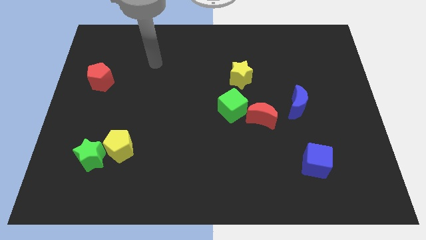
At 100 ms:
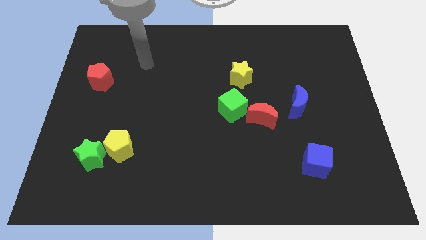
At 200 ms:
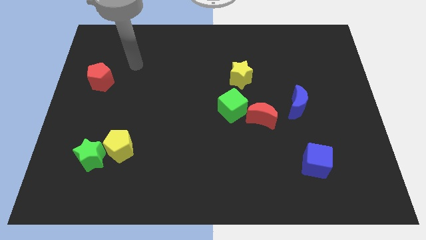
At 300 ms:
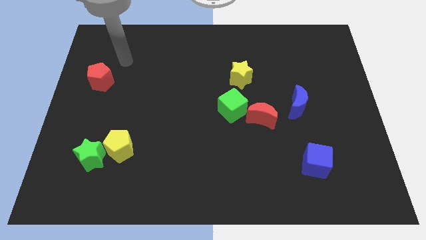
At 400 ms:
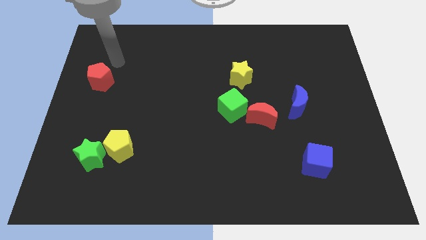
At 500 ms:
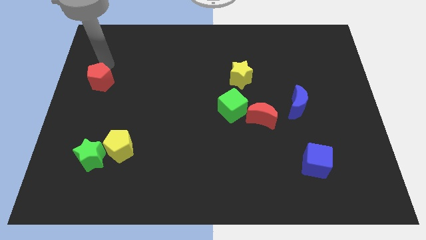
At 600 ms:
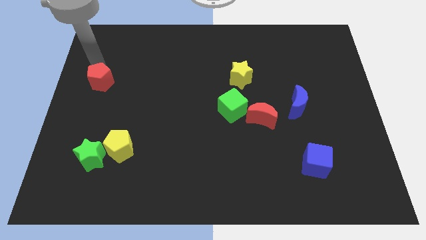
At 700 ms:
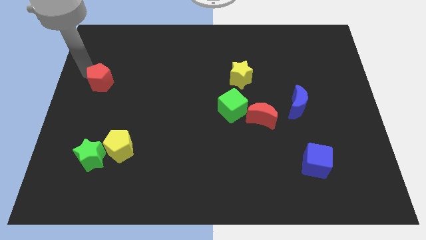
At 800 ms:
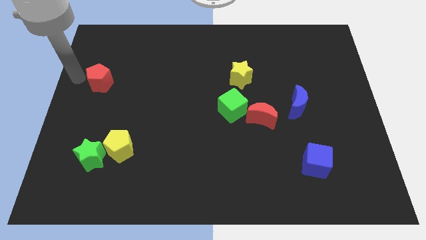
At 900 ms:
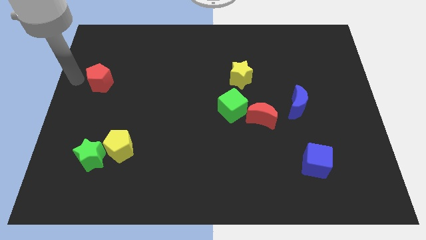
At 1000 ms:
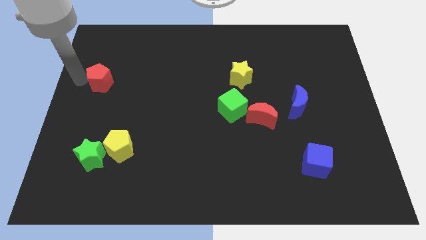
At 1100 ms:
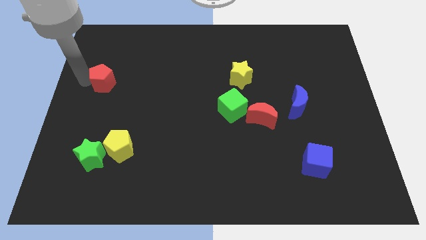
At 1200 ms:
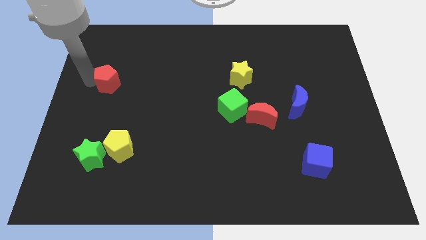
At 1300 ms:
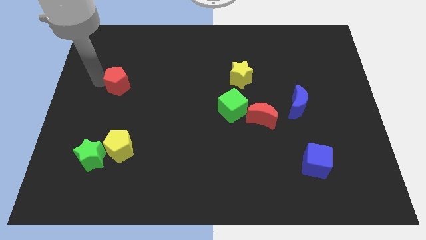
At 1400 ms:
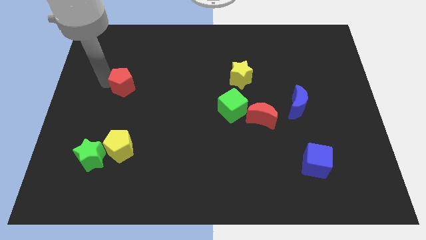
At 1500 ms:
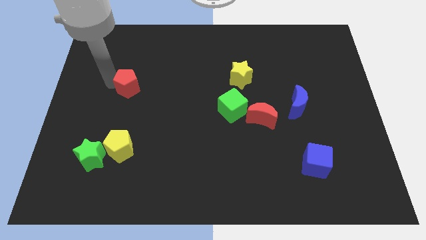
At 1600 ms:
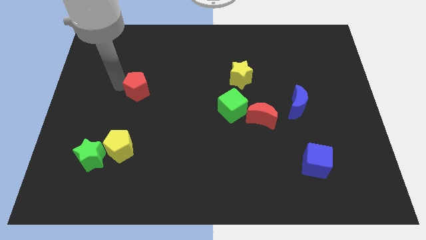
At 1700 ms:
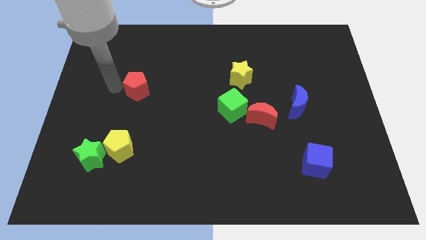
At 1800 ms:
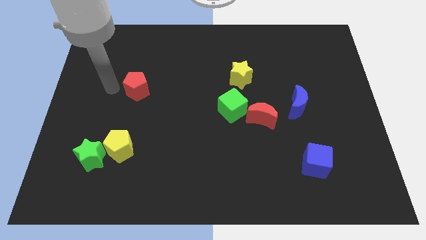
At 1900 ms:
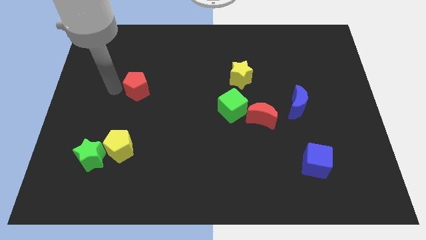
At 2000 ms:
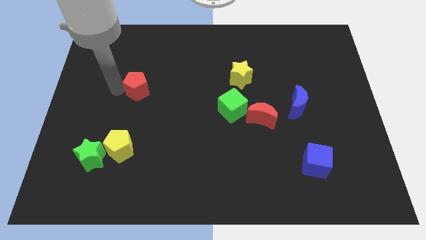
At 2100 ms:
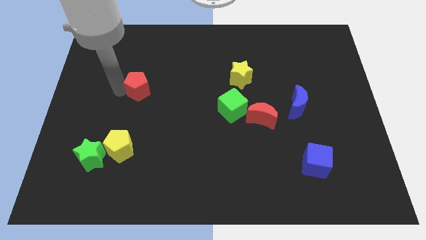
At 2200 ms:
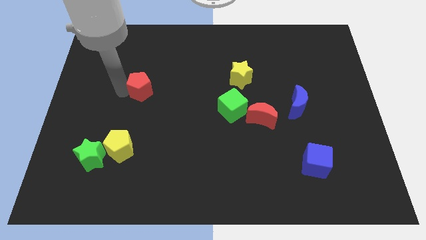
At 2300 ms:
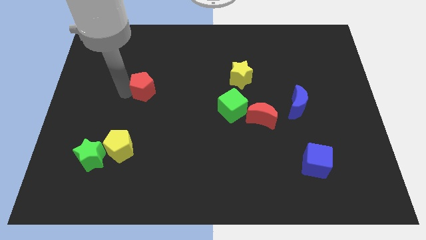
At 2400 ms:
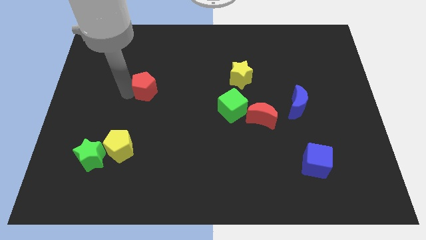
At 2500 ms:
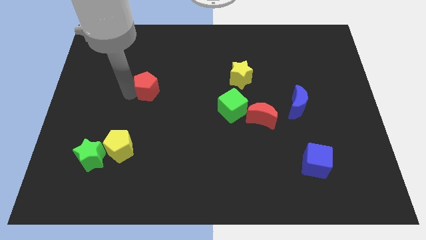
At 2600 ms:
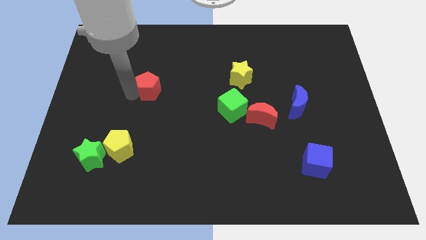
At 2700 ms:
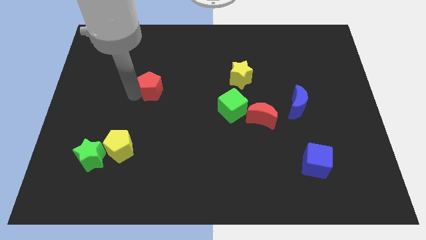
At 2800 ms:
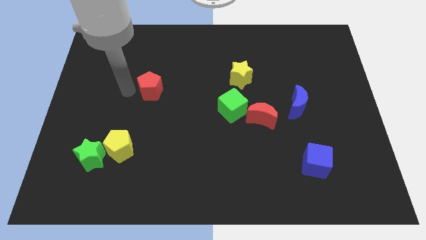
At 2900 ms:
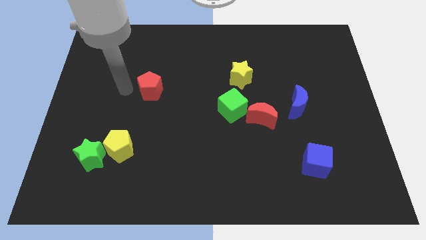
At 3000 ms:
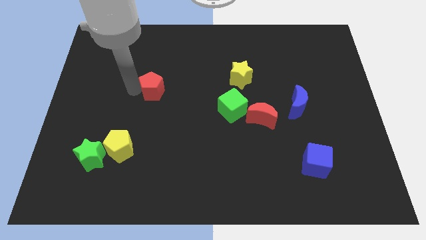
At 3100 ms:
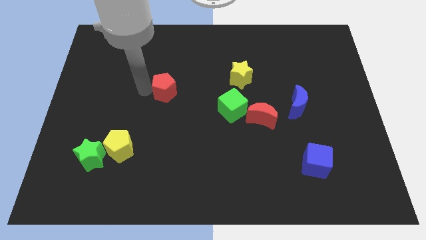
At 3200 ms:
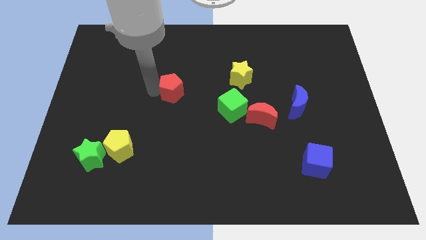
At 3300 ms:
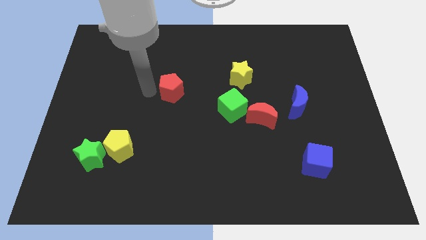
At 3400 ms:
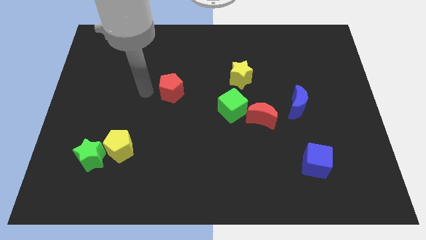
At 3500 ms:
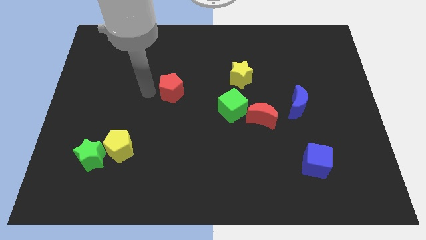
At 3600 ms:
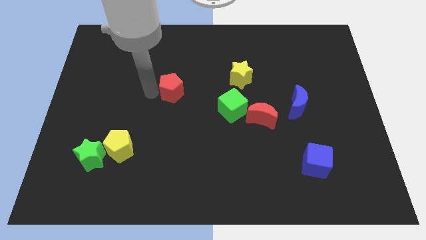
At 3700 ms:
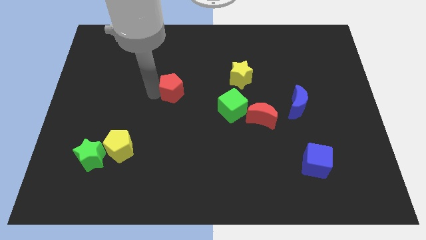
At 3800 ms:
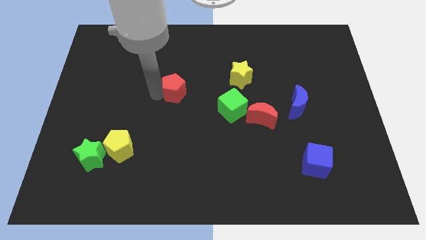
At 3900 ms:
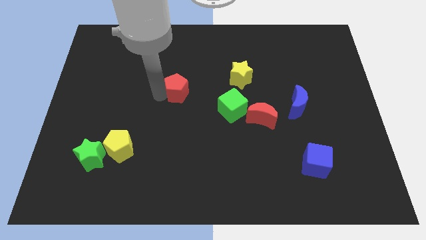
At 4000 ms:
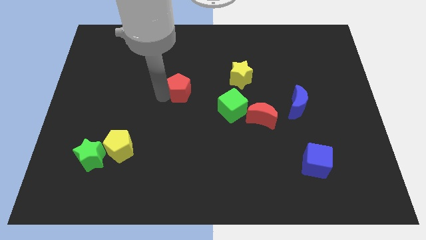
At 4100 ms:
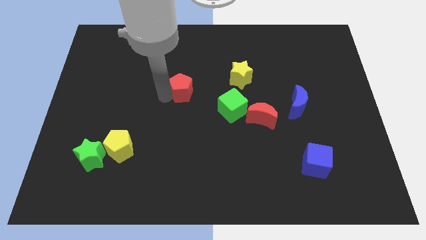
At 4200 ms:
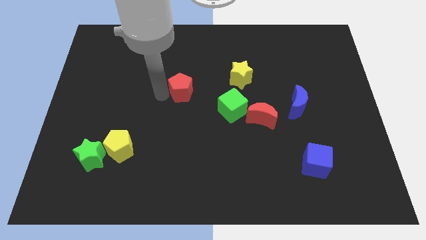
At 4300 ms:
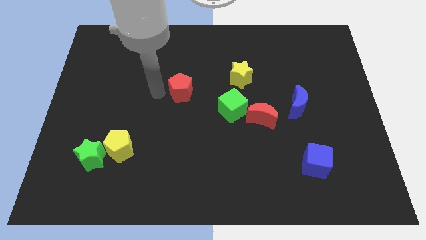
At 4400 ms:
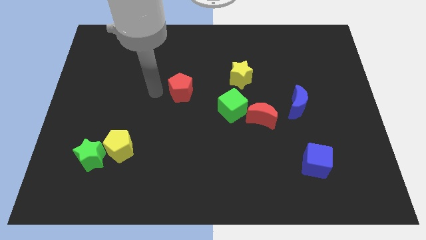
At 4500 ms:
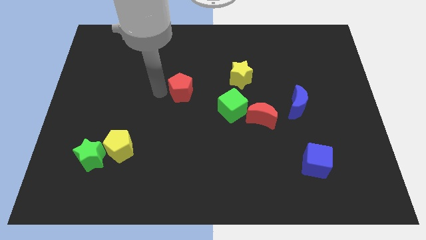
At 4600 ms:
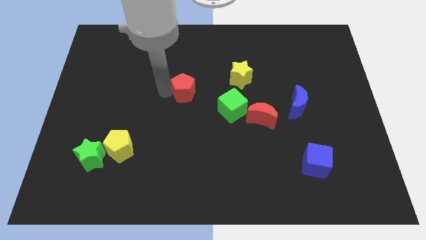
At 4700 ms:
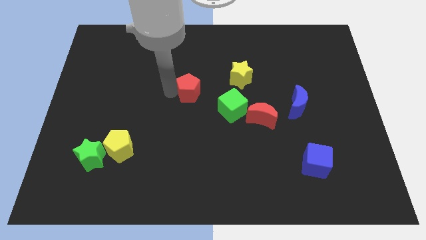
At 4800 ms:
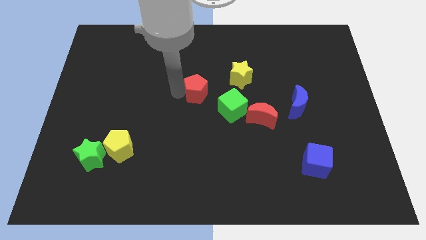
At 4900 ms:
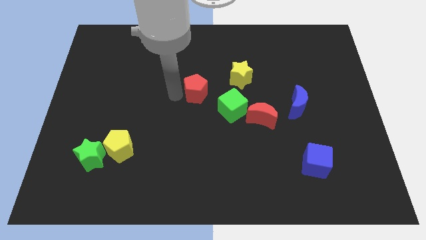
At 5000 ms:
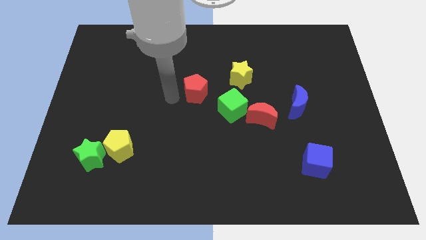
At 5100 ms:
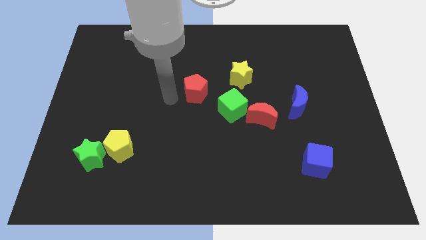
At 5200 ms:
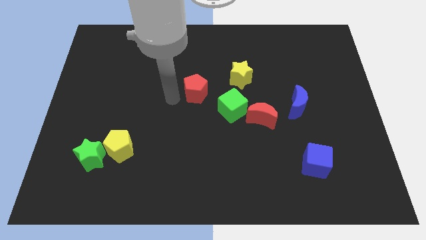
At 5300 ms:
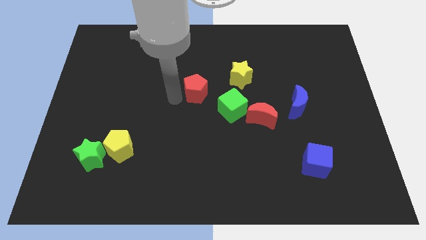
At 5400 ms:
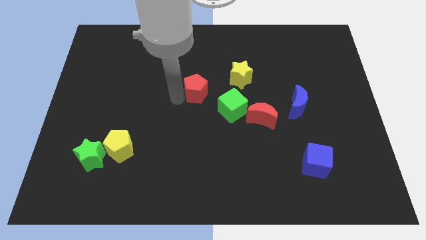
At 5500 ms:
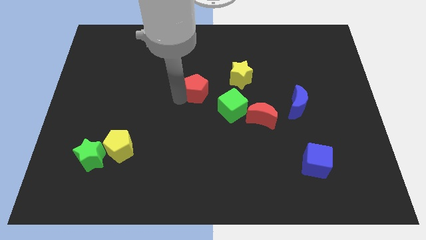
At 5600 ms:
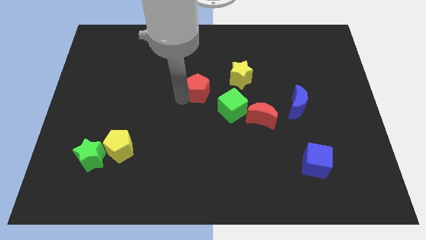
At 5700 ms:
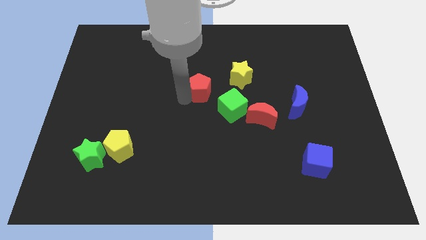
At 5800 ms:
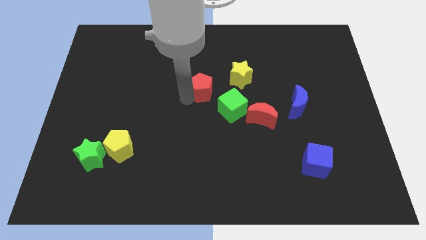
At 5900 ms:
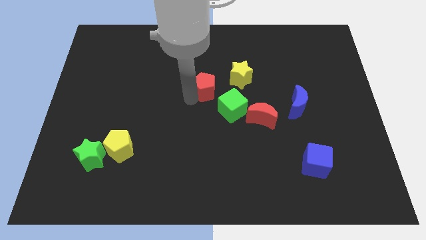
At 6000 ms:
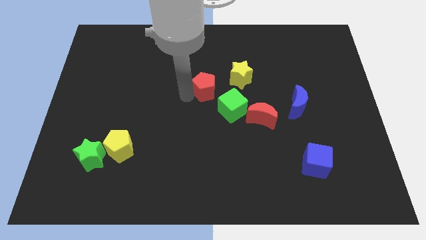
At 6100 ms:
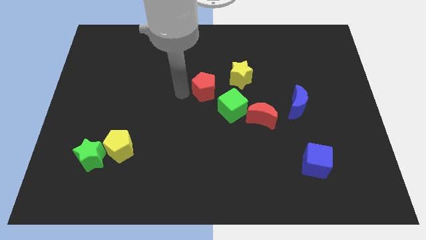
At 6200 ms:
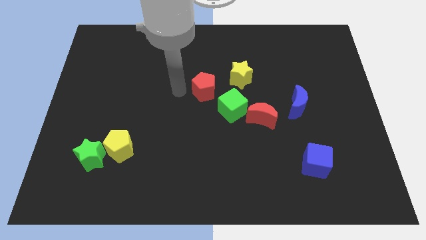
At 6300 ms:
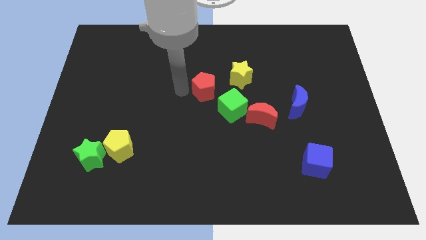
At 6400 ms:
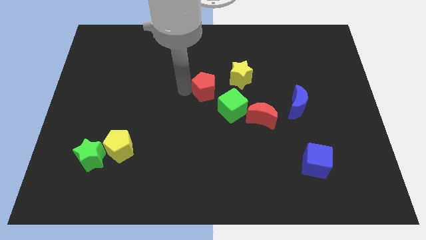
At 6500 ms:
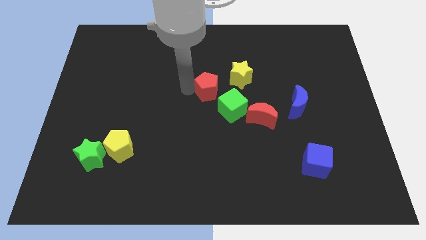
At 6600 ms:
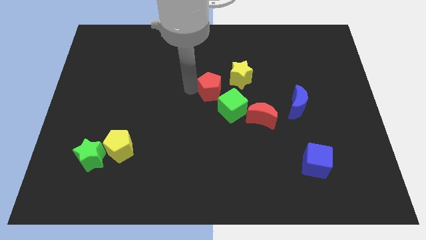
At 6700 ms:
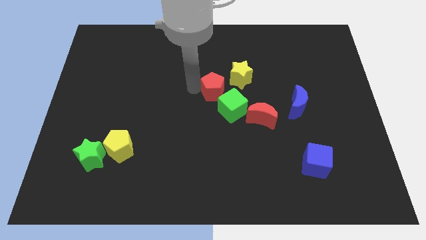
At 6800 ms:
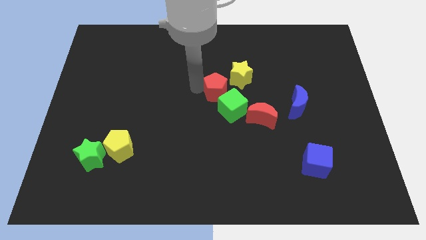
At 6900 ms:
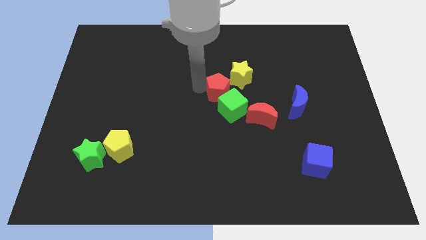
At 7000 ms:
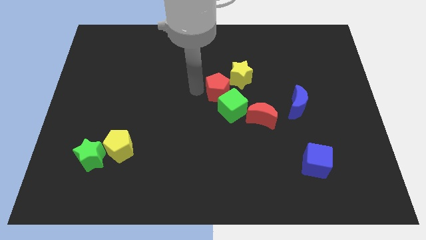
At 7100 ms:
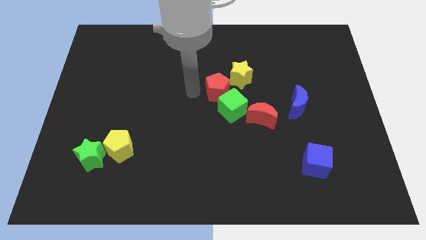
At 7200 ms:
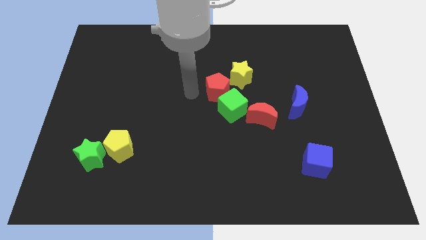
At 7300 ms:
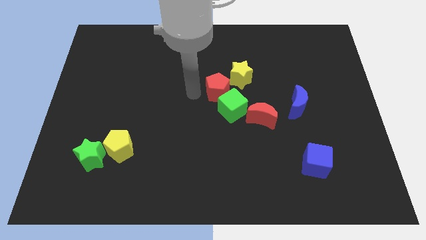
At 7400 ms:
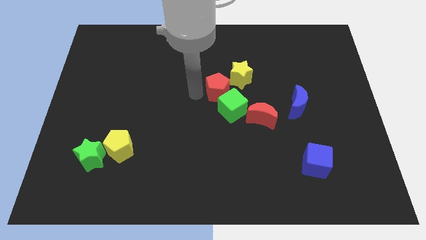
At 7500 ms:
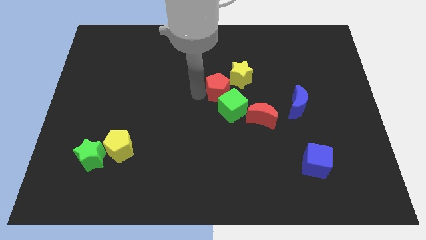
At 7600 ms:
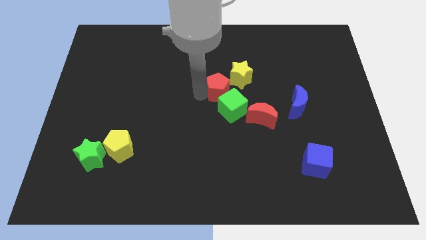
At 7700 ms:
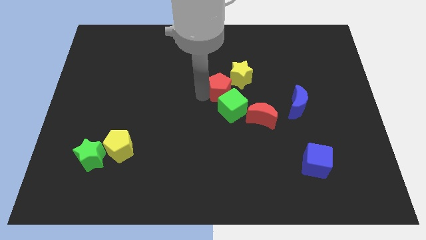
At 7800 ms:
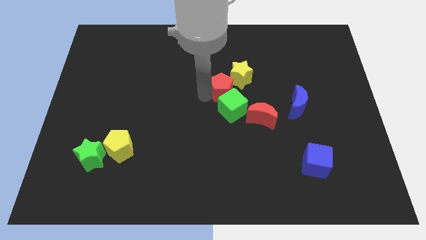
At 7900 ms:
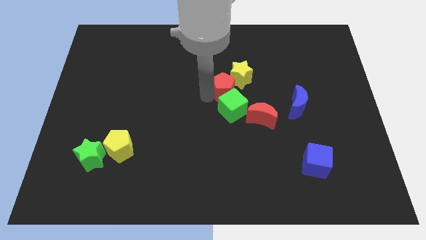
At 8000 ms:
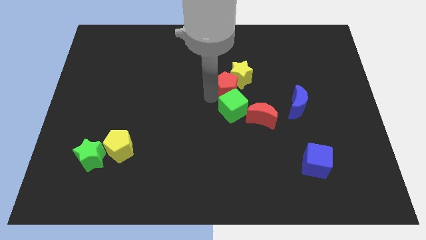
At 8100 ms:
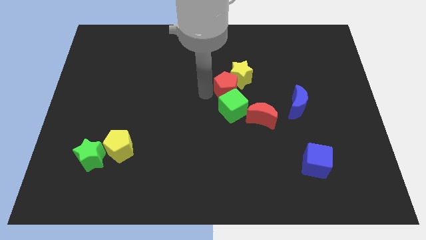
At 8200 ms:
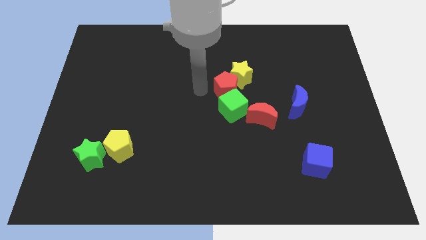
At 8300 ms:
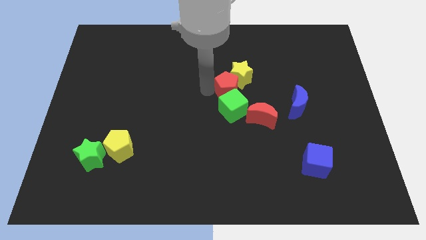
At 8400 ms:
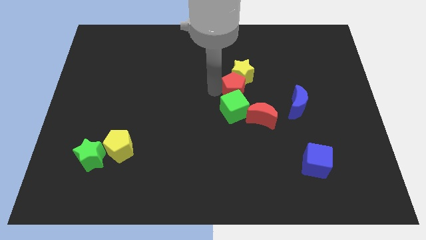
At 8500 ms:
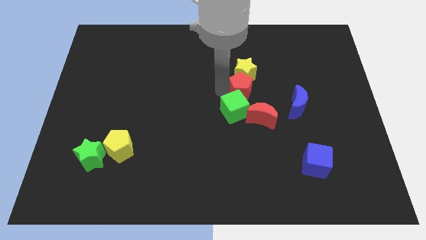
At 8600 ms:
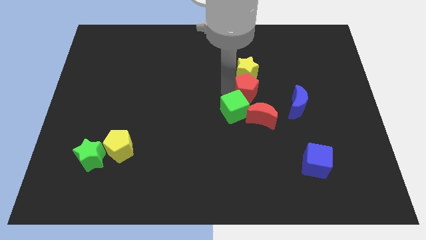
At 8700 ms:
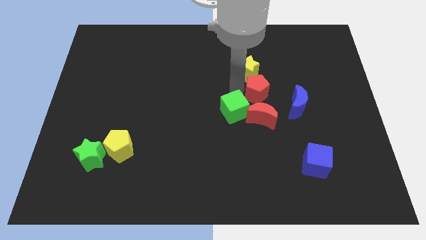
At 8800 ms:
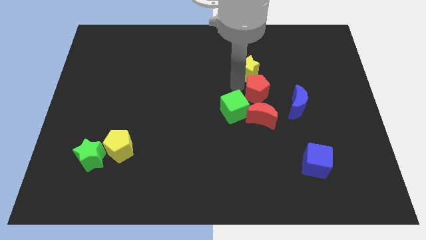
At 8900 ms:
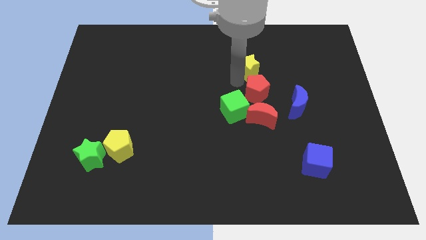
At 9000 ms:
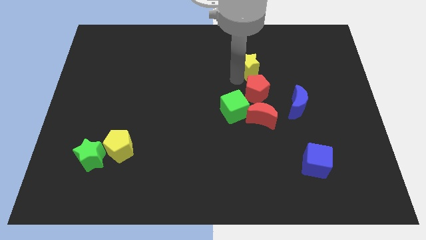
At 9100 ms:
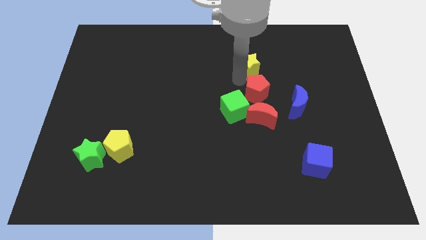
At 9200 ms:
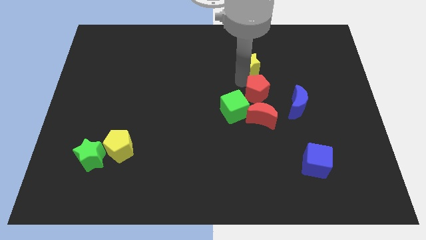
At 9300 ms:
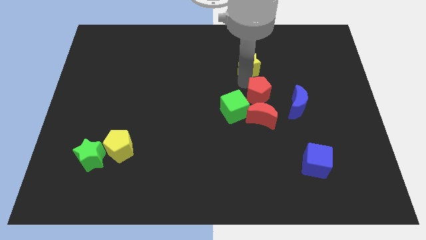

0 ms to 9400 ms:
put the red pentagon just right of the green cube
